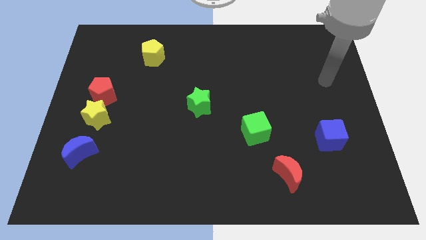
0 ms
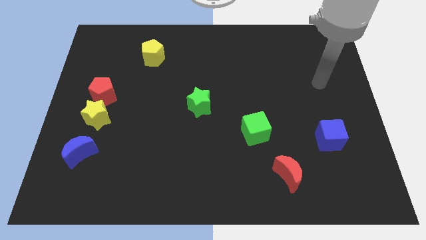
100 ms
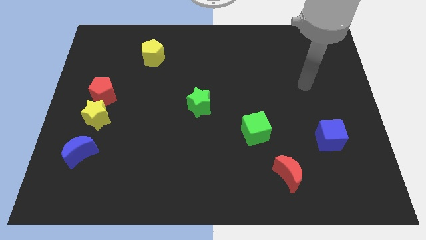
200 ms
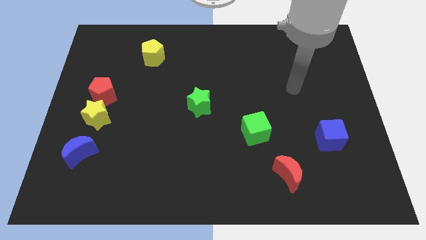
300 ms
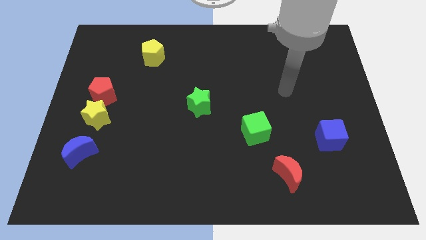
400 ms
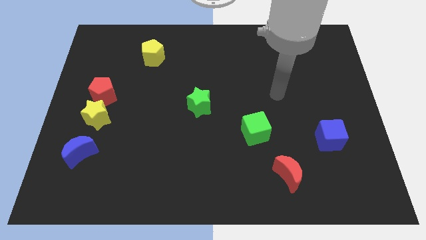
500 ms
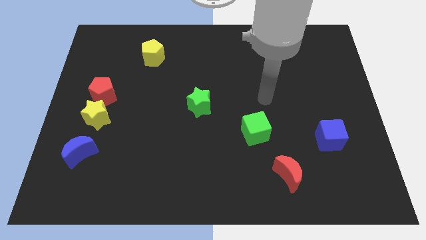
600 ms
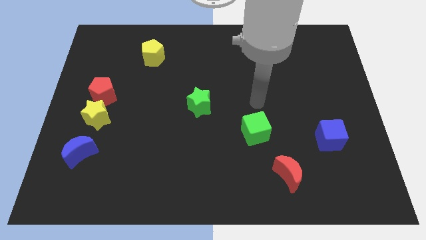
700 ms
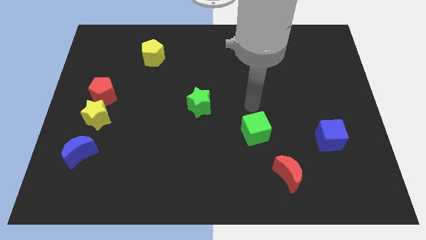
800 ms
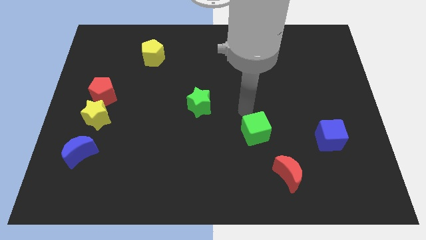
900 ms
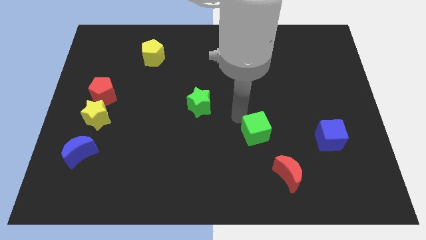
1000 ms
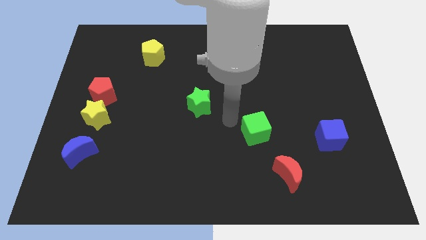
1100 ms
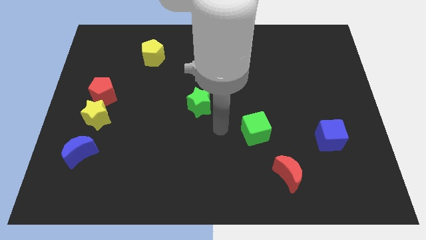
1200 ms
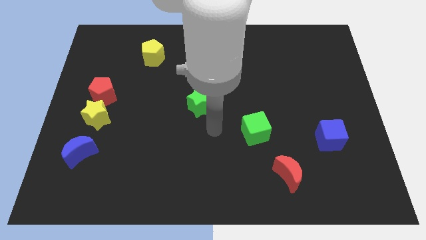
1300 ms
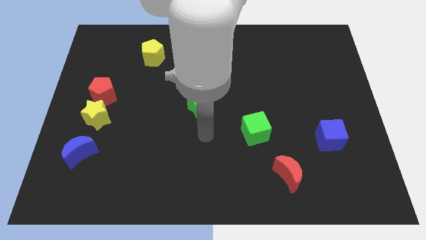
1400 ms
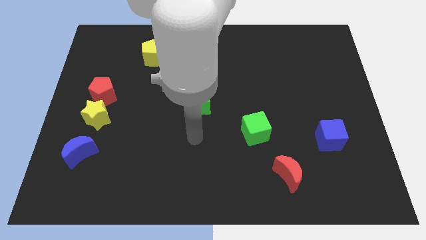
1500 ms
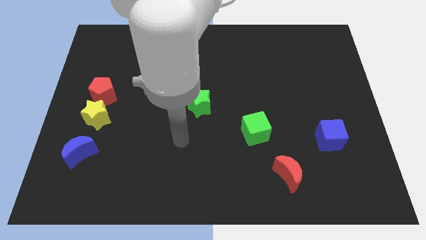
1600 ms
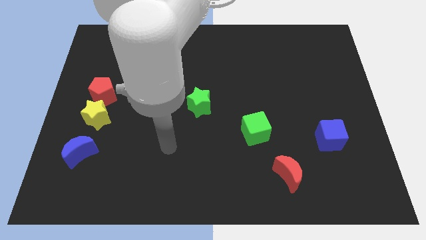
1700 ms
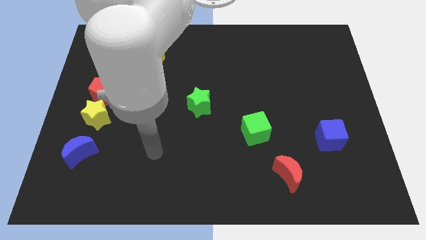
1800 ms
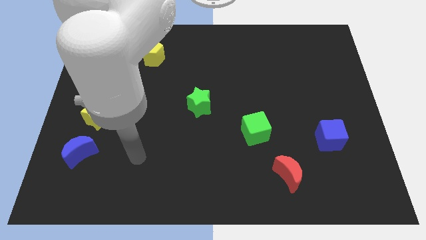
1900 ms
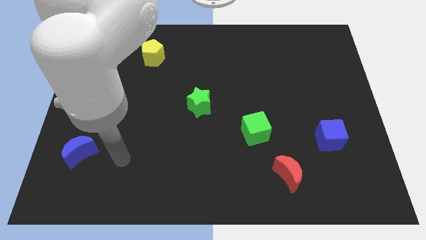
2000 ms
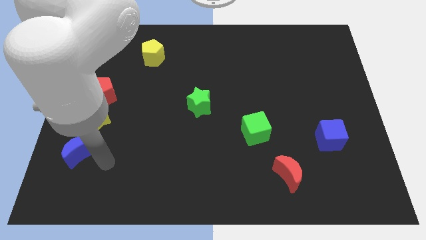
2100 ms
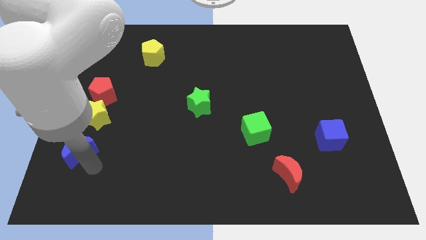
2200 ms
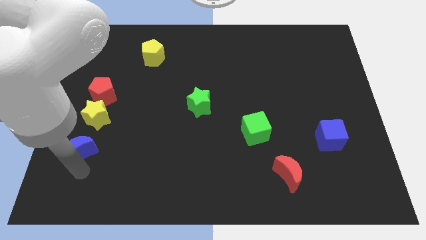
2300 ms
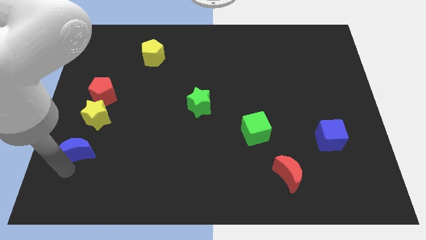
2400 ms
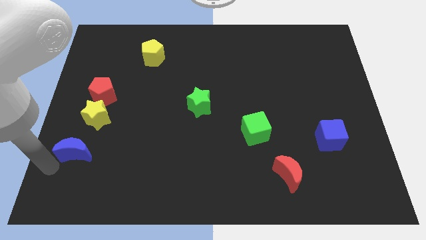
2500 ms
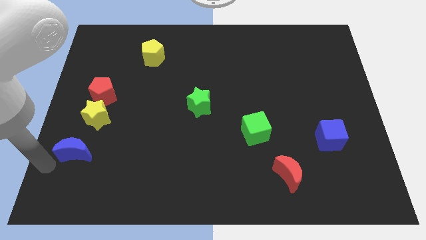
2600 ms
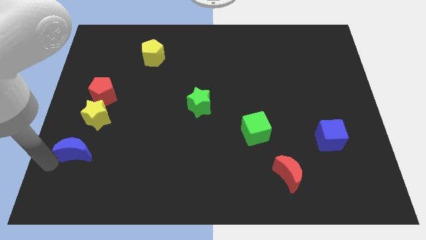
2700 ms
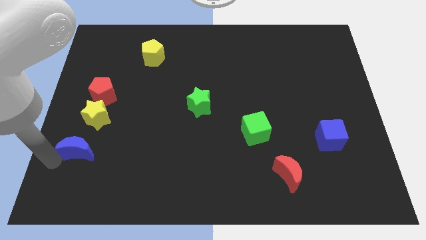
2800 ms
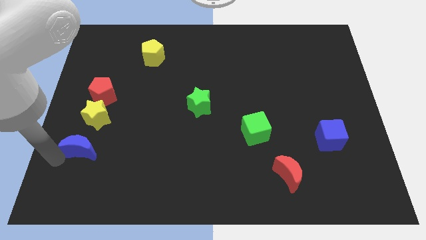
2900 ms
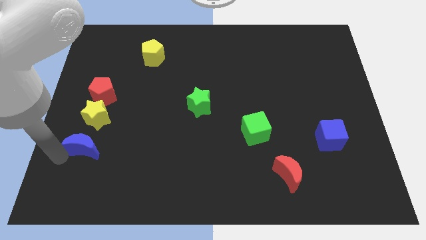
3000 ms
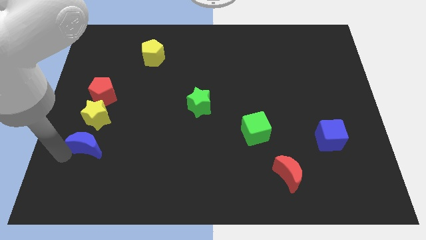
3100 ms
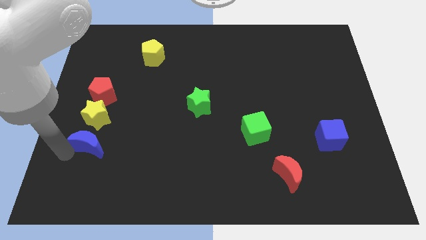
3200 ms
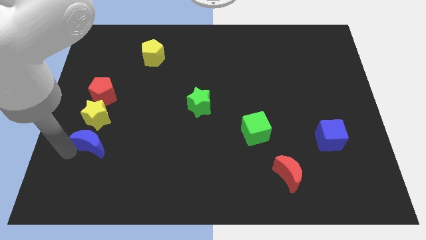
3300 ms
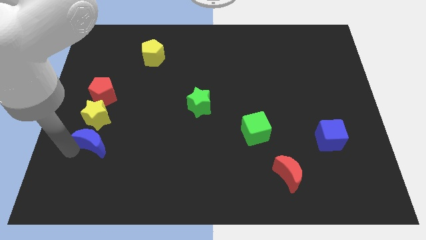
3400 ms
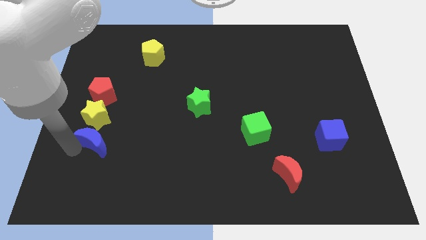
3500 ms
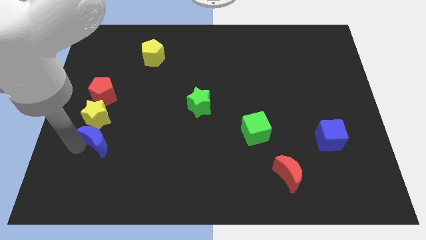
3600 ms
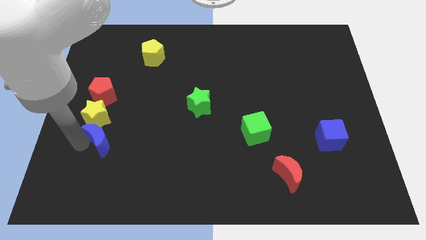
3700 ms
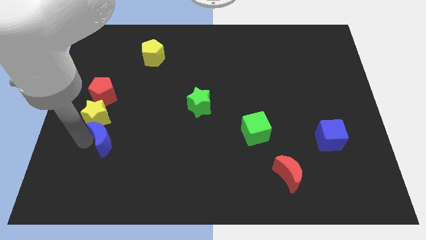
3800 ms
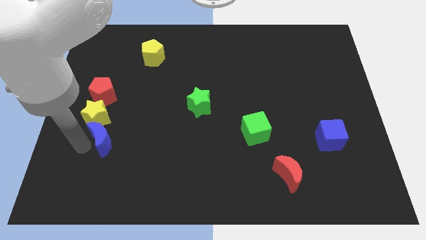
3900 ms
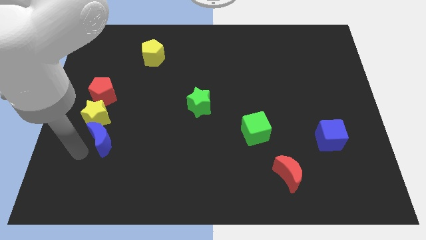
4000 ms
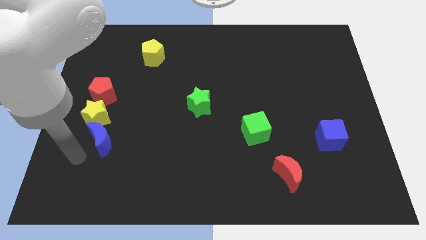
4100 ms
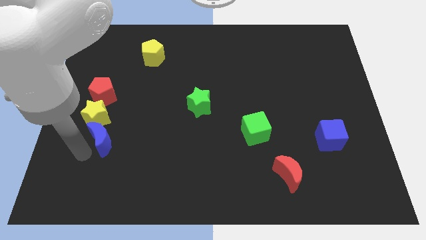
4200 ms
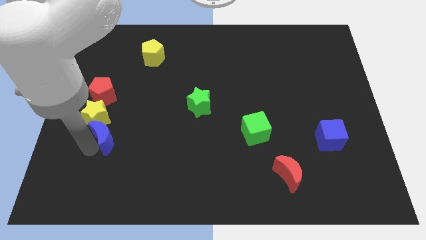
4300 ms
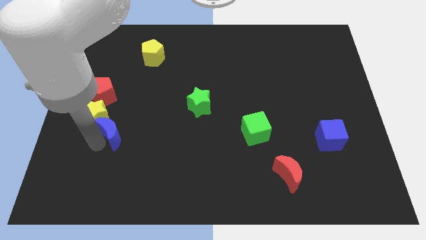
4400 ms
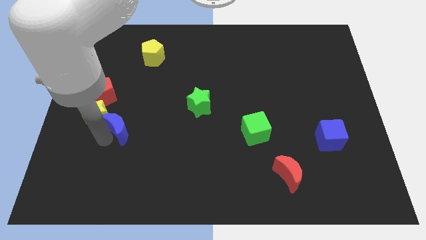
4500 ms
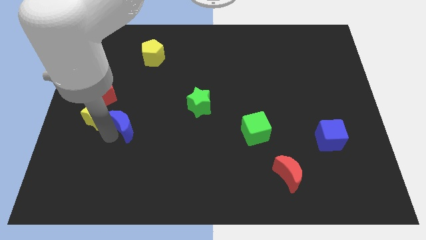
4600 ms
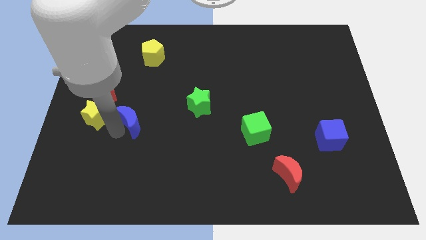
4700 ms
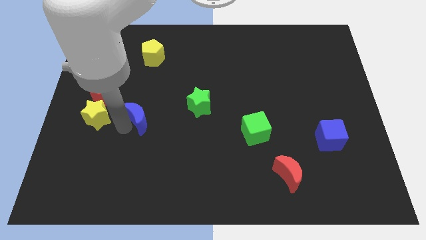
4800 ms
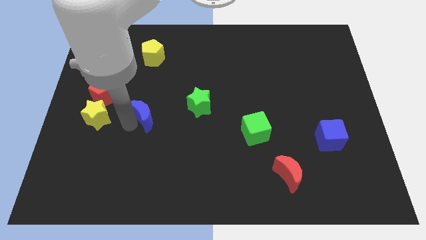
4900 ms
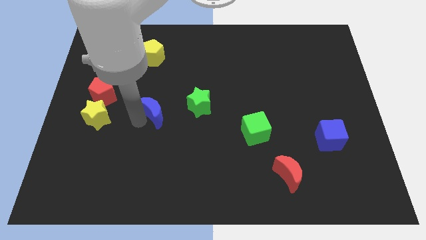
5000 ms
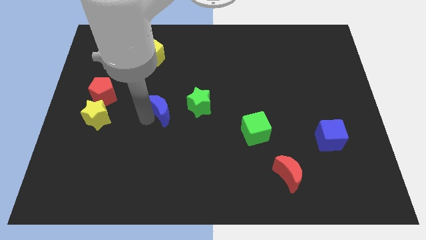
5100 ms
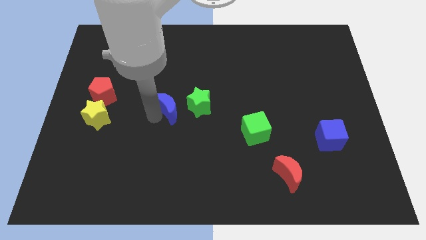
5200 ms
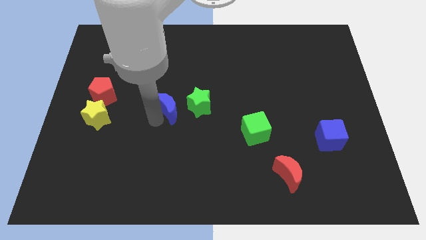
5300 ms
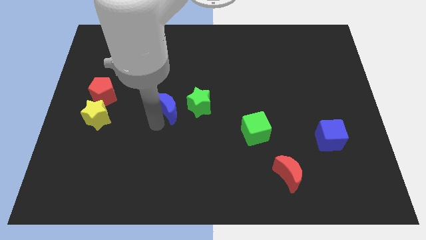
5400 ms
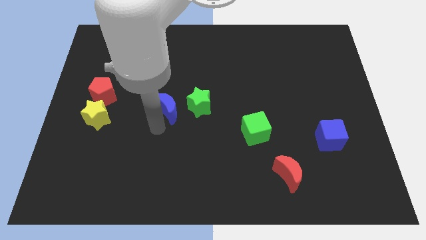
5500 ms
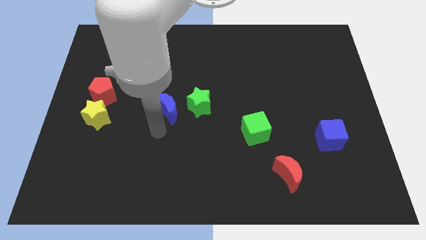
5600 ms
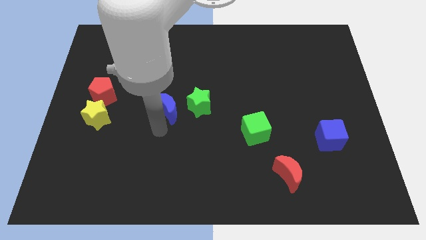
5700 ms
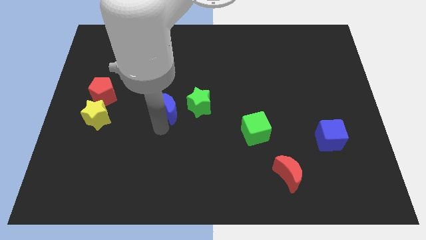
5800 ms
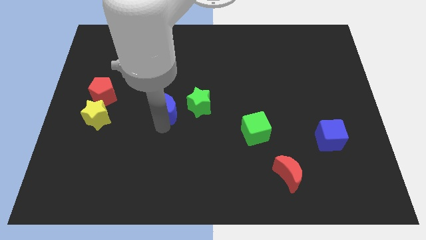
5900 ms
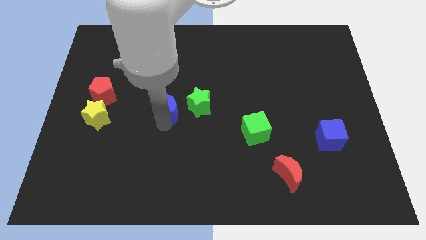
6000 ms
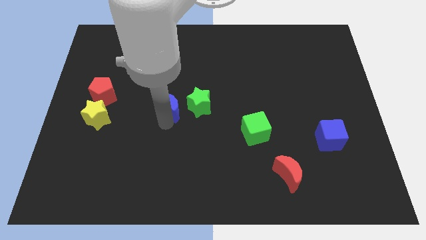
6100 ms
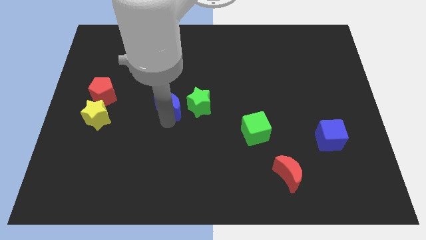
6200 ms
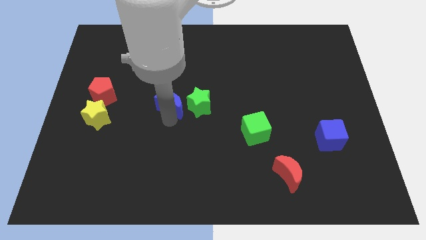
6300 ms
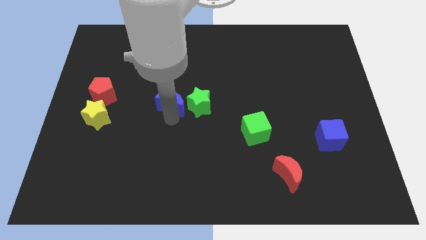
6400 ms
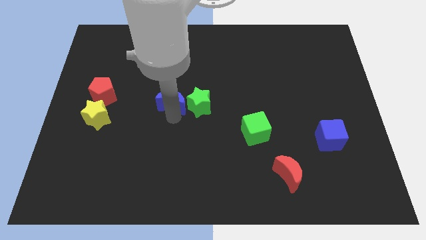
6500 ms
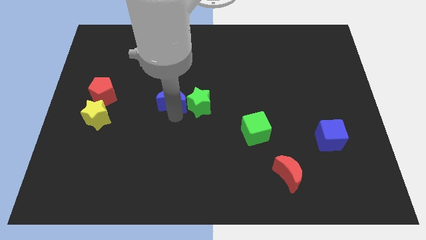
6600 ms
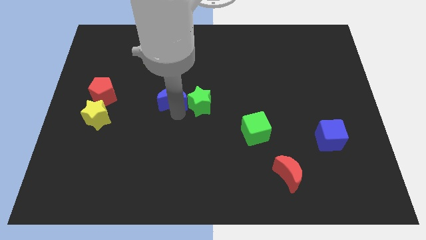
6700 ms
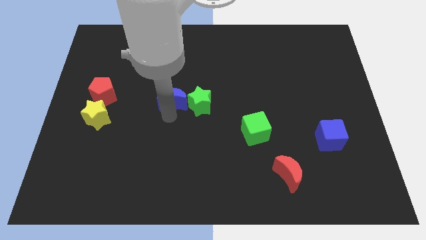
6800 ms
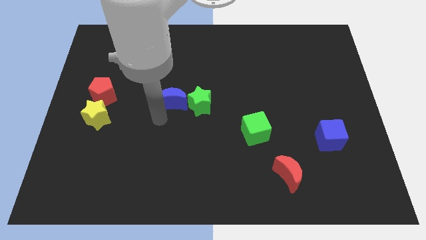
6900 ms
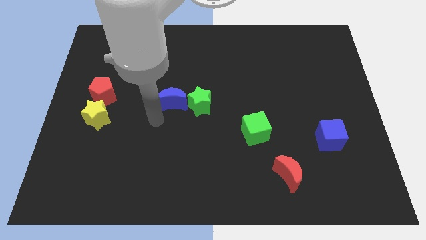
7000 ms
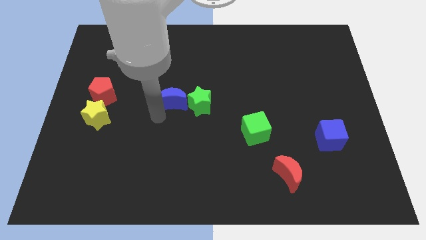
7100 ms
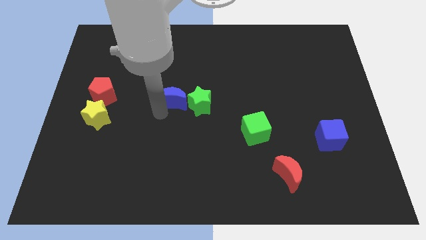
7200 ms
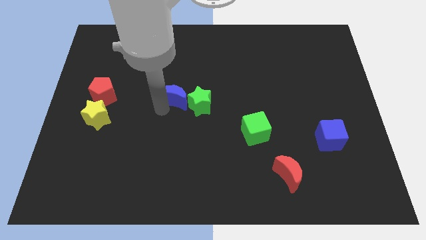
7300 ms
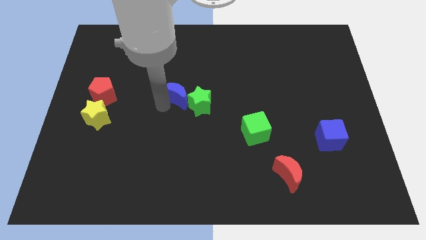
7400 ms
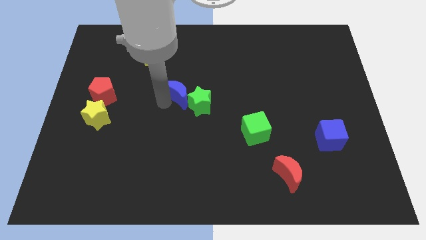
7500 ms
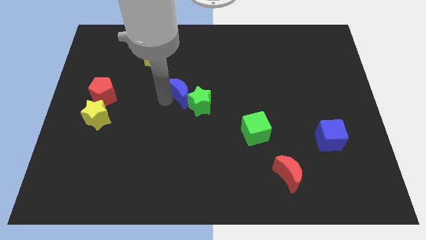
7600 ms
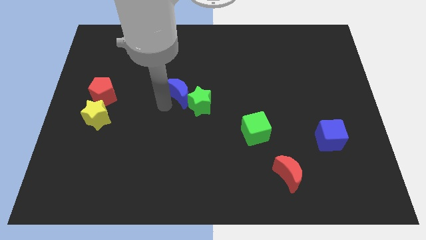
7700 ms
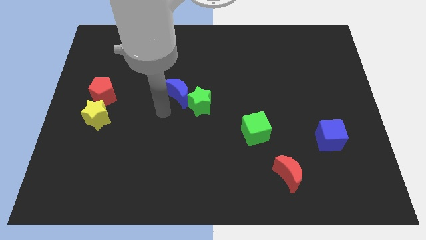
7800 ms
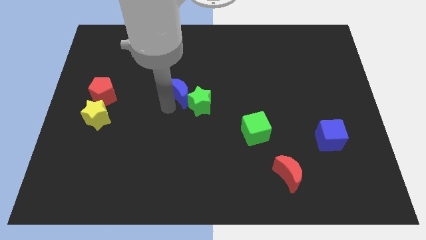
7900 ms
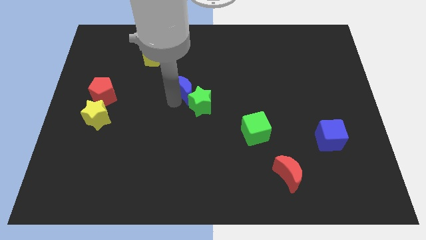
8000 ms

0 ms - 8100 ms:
push the blue moon to the top side of the green star

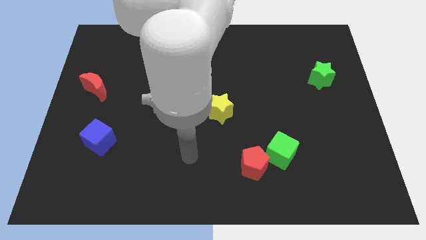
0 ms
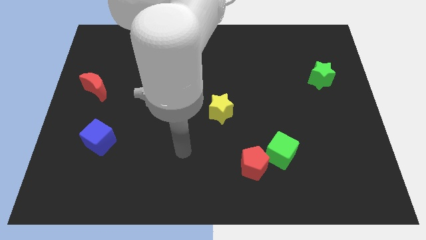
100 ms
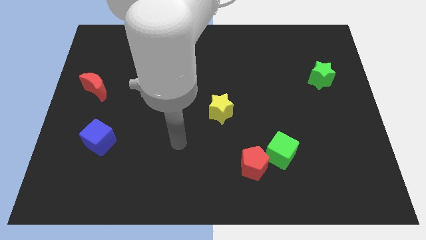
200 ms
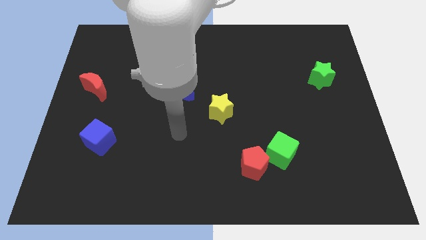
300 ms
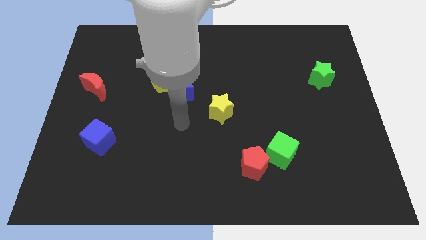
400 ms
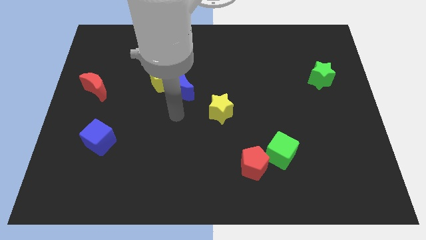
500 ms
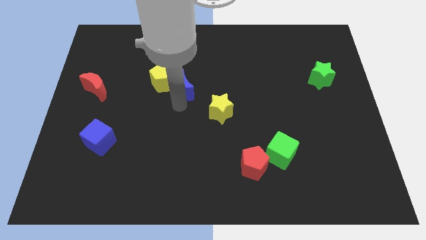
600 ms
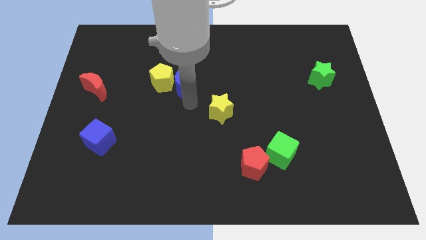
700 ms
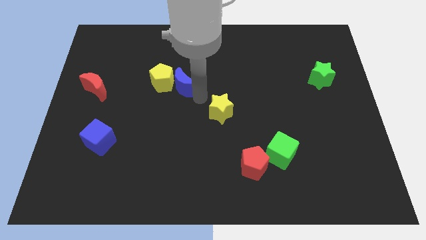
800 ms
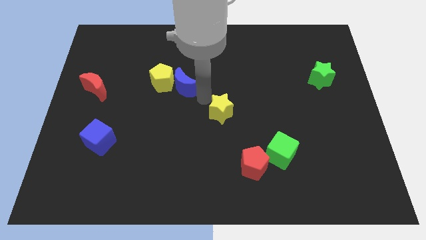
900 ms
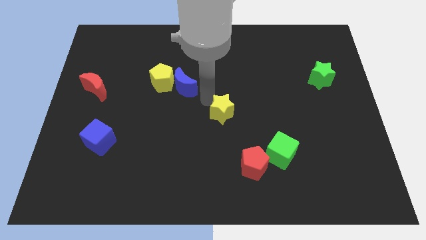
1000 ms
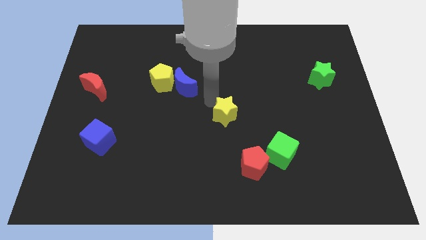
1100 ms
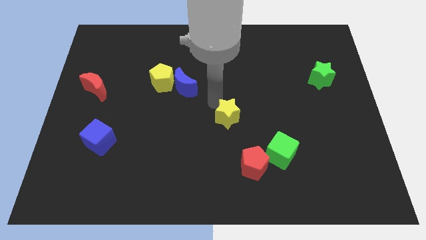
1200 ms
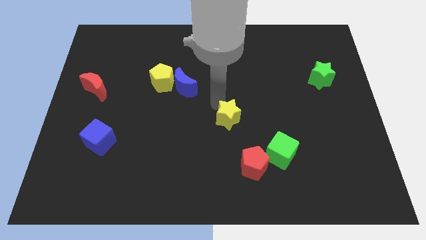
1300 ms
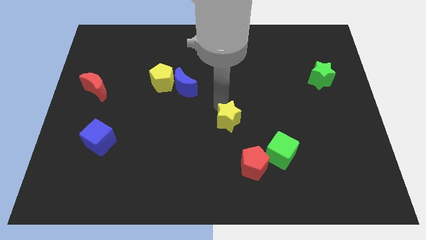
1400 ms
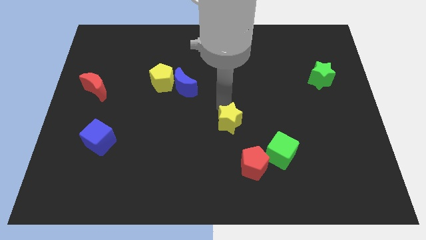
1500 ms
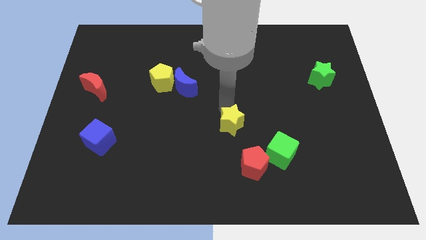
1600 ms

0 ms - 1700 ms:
push the yellow star to the top left side of the green cube
